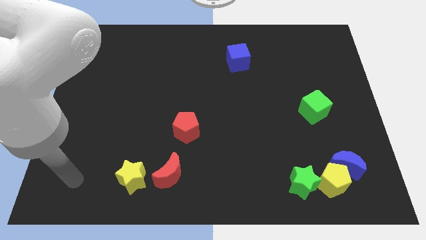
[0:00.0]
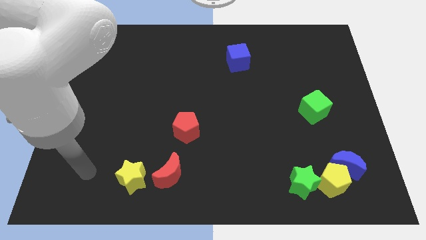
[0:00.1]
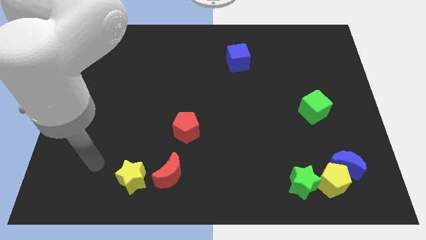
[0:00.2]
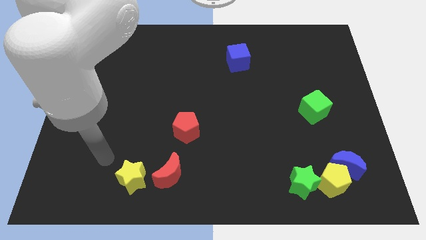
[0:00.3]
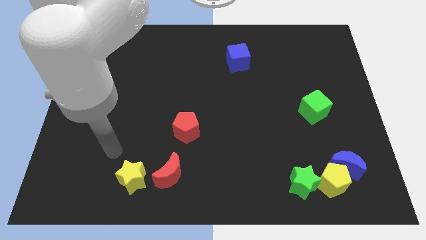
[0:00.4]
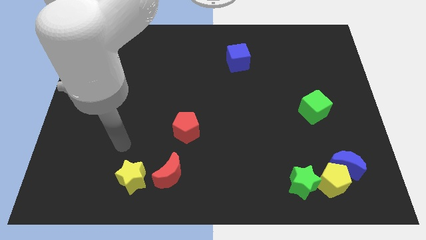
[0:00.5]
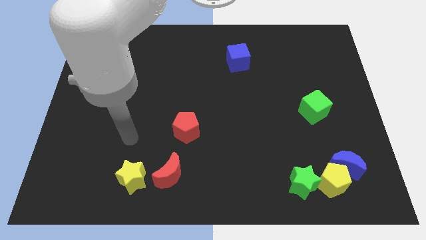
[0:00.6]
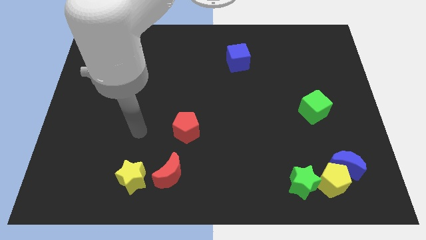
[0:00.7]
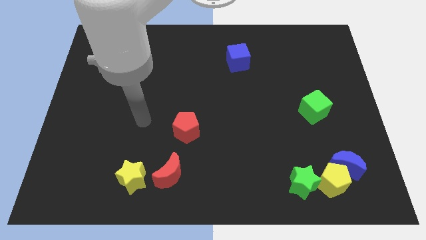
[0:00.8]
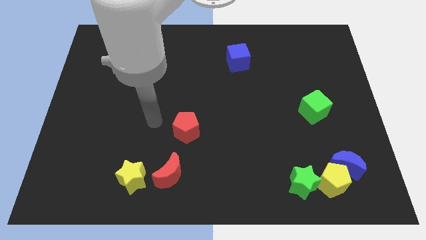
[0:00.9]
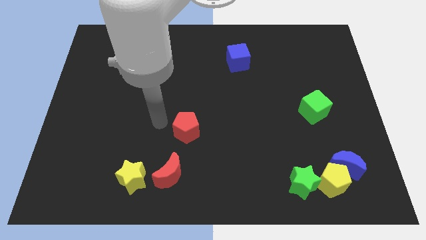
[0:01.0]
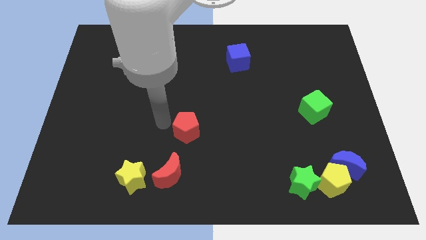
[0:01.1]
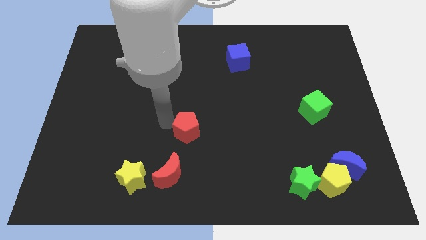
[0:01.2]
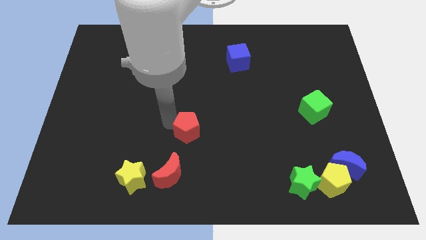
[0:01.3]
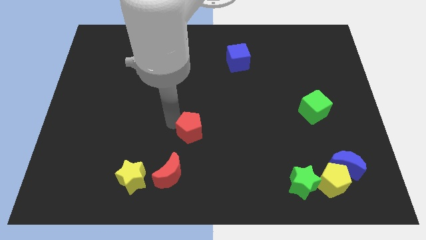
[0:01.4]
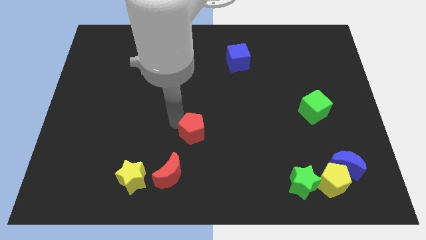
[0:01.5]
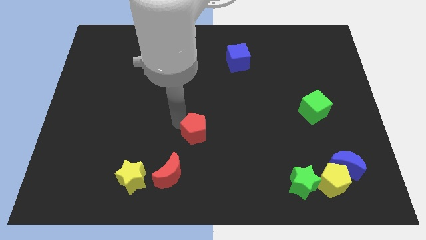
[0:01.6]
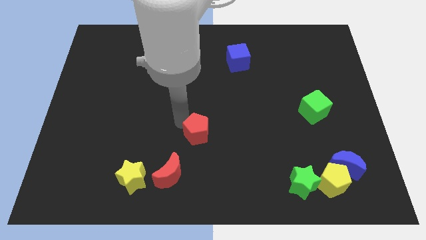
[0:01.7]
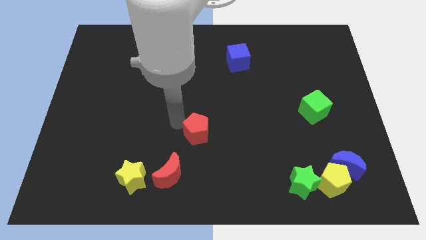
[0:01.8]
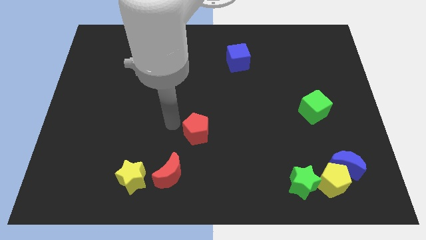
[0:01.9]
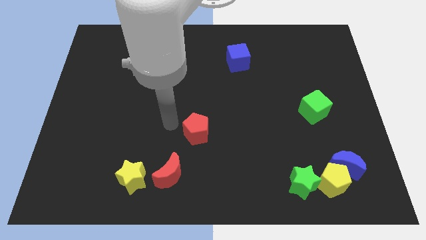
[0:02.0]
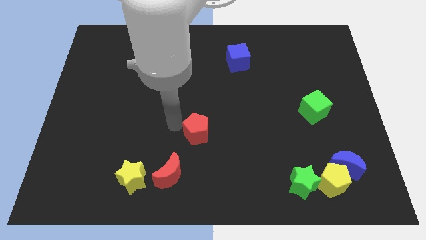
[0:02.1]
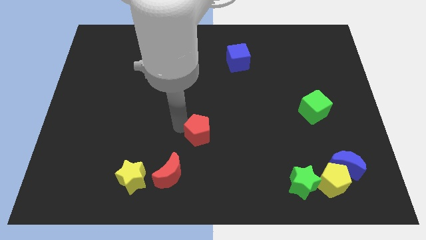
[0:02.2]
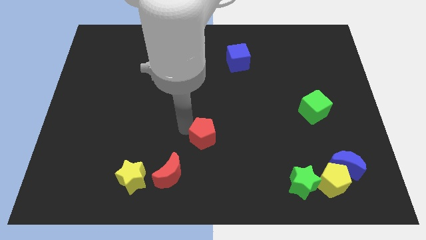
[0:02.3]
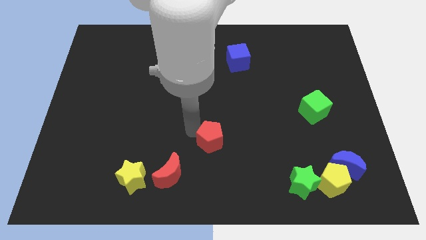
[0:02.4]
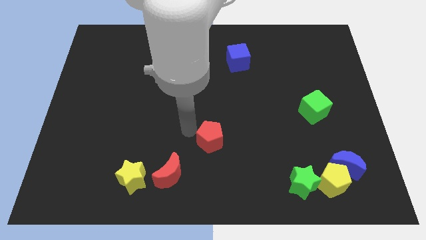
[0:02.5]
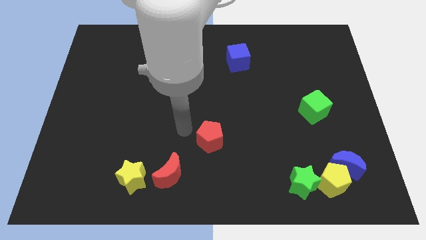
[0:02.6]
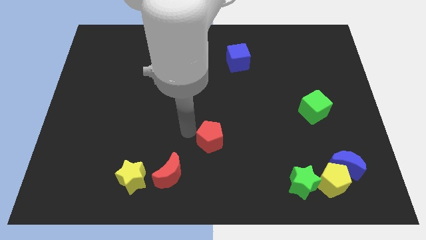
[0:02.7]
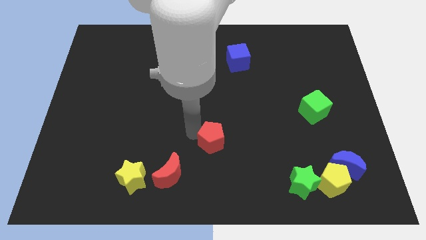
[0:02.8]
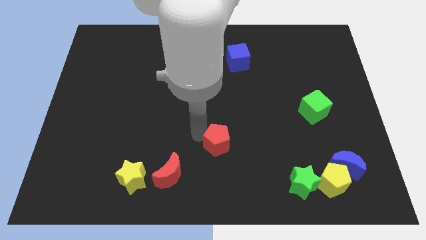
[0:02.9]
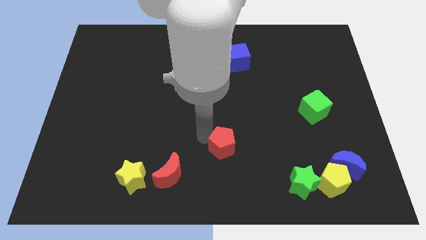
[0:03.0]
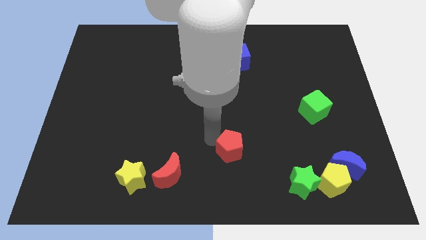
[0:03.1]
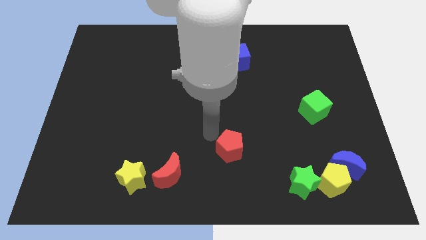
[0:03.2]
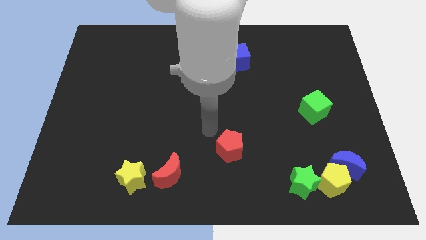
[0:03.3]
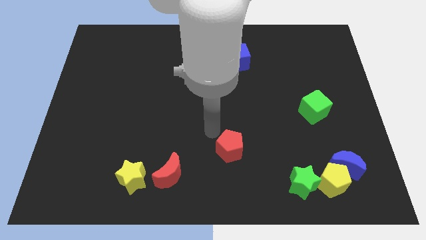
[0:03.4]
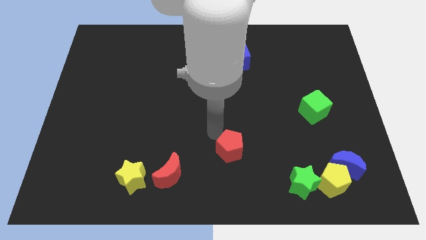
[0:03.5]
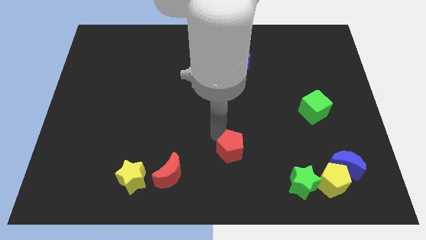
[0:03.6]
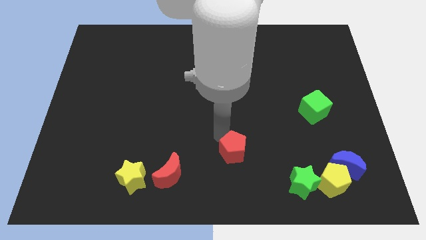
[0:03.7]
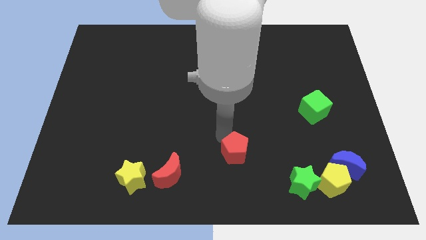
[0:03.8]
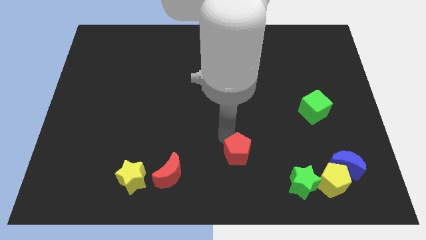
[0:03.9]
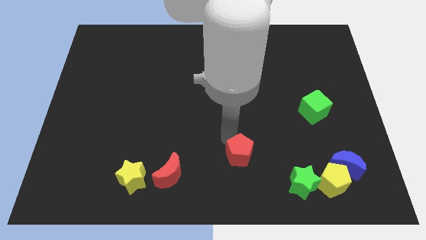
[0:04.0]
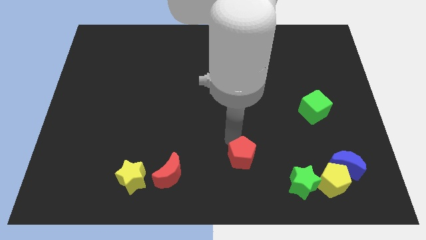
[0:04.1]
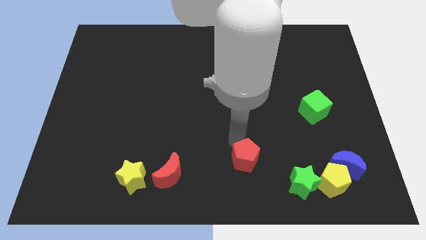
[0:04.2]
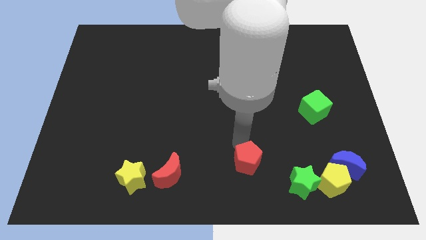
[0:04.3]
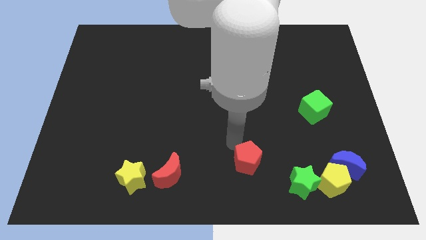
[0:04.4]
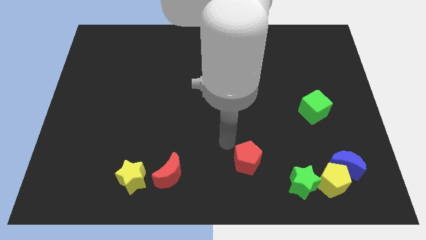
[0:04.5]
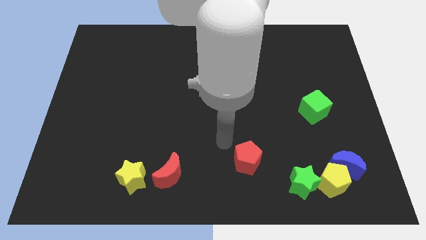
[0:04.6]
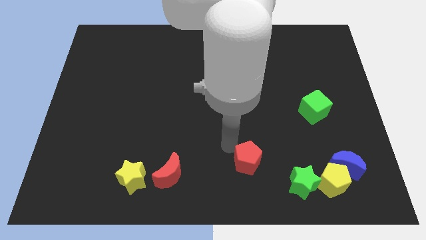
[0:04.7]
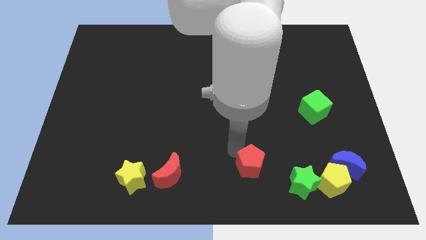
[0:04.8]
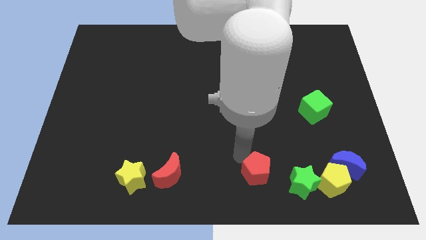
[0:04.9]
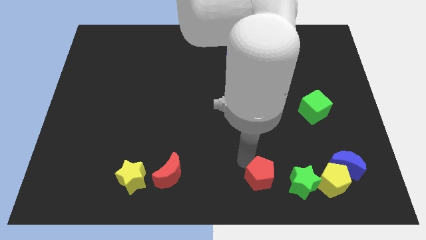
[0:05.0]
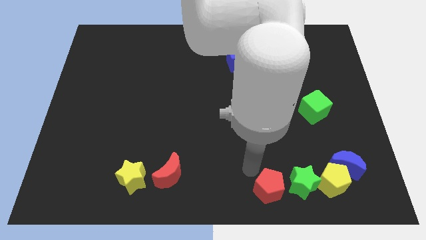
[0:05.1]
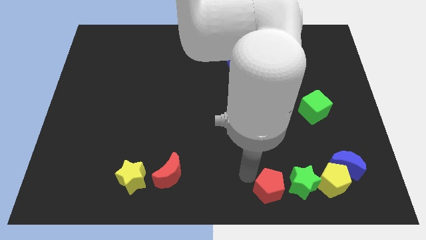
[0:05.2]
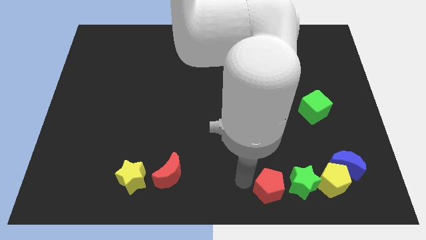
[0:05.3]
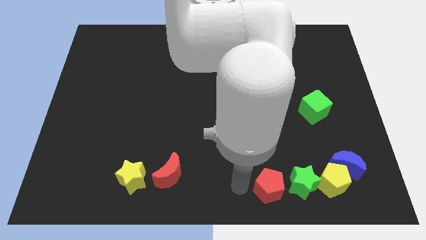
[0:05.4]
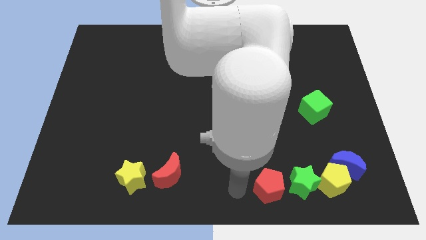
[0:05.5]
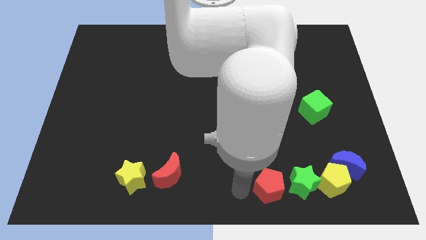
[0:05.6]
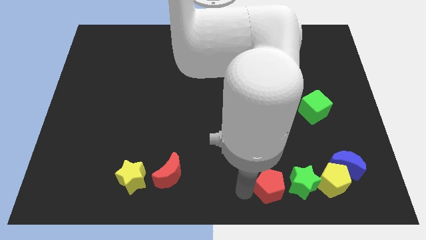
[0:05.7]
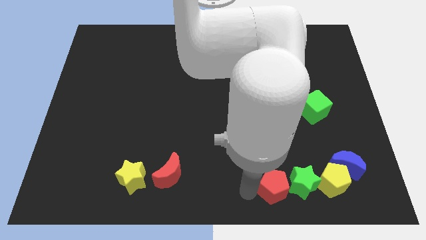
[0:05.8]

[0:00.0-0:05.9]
push the red pentagon close to the green star
